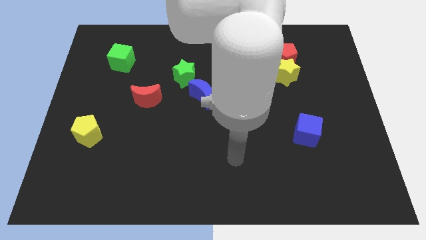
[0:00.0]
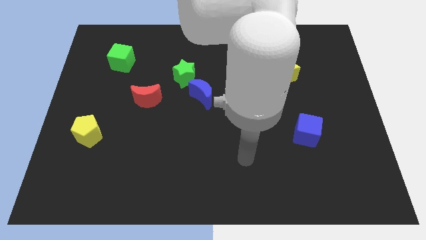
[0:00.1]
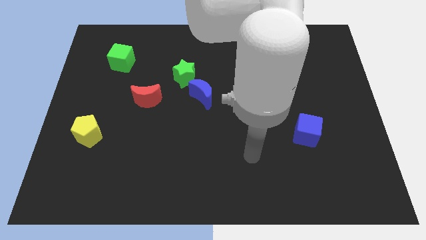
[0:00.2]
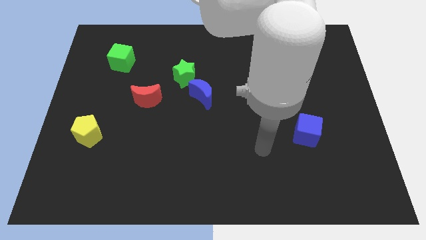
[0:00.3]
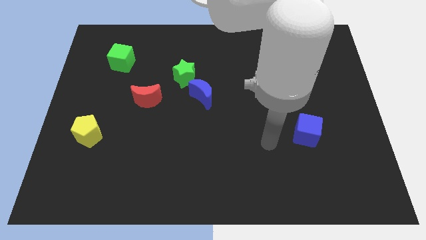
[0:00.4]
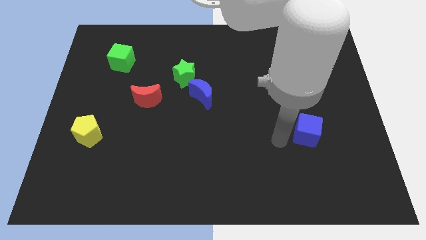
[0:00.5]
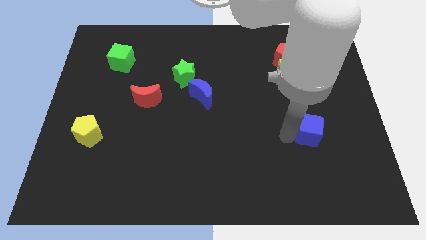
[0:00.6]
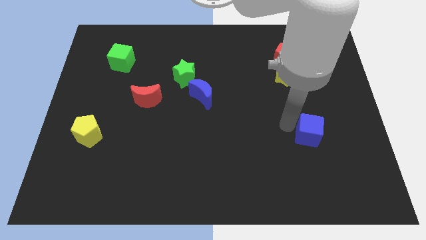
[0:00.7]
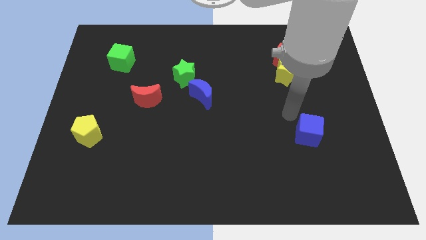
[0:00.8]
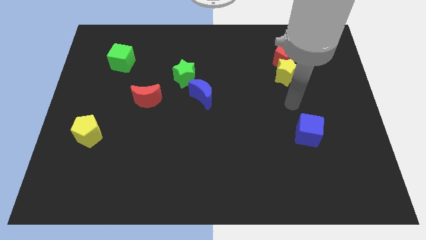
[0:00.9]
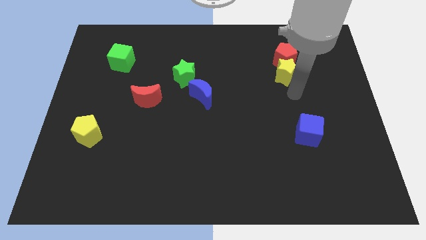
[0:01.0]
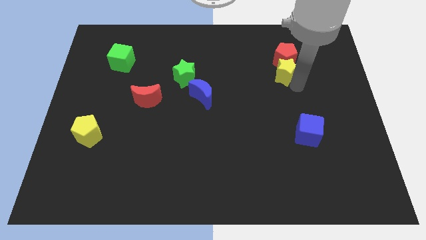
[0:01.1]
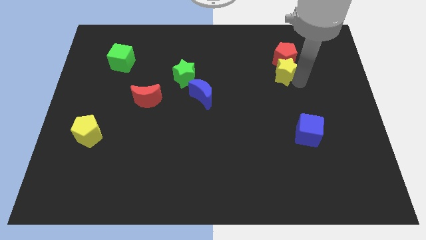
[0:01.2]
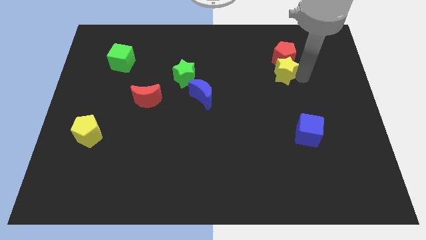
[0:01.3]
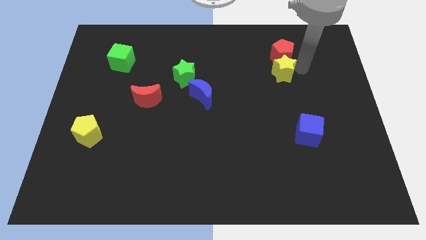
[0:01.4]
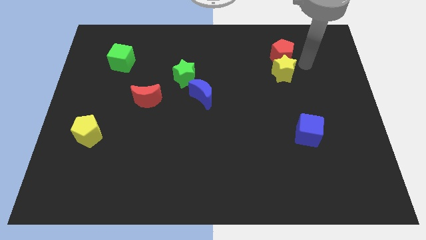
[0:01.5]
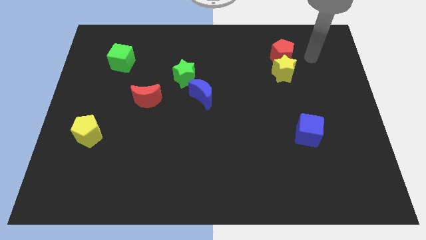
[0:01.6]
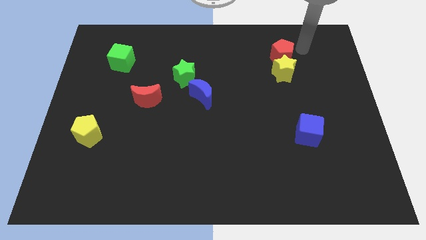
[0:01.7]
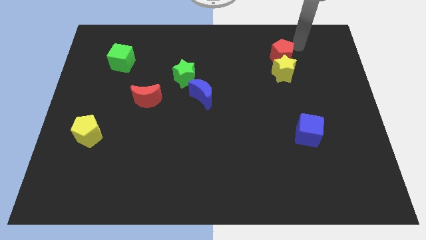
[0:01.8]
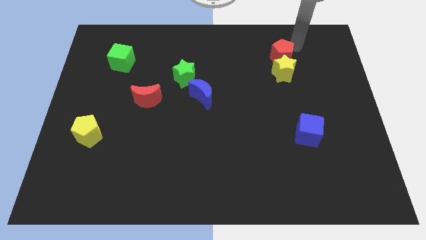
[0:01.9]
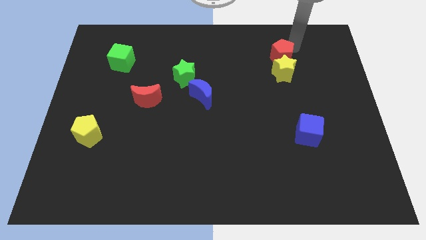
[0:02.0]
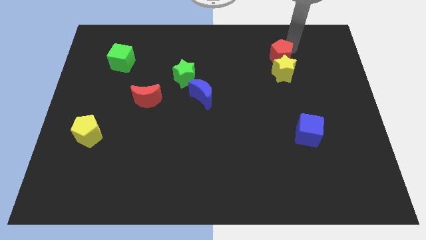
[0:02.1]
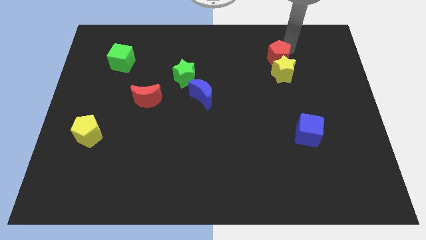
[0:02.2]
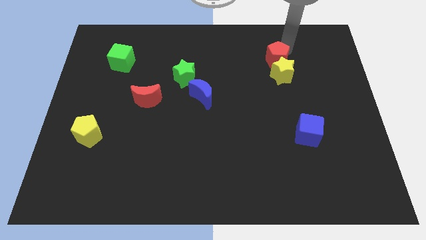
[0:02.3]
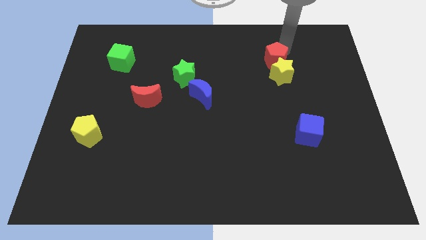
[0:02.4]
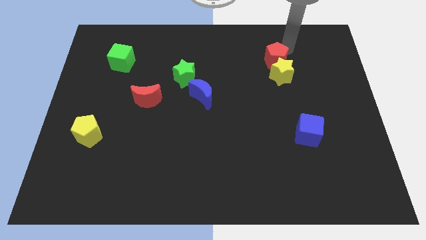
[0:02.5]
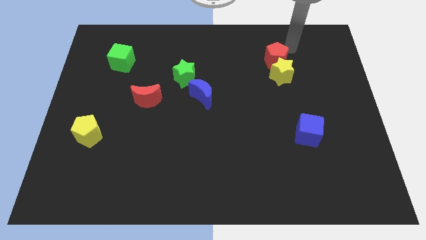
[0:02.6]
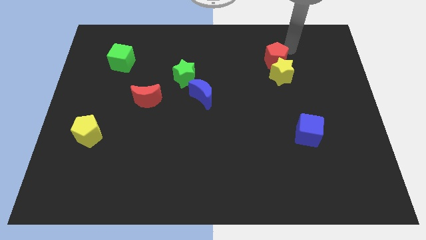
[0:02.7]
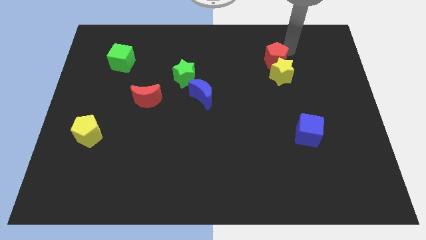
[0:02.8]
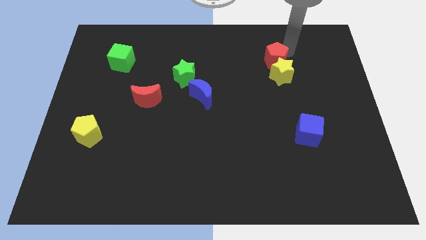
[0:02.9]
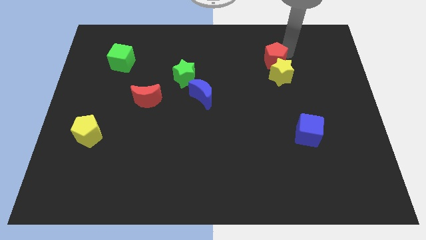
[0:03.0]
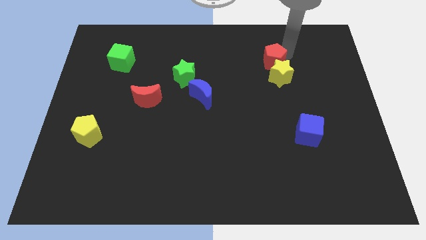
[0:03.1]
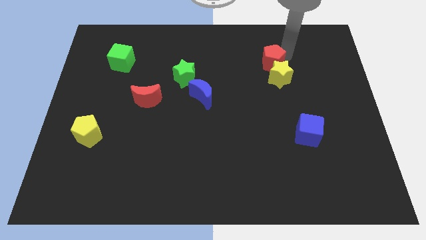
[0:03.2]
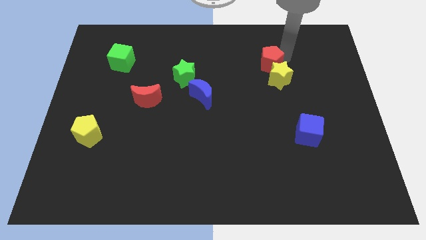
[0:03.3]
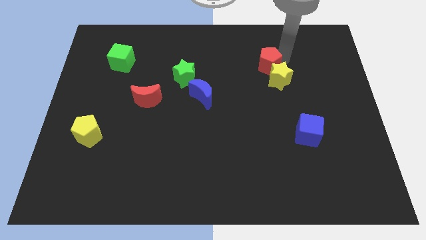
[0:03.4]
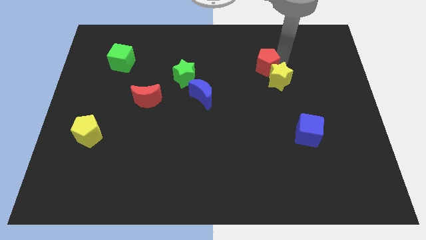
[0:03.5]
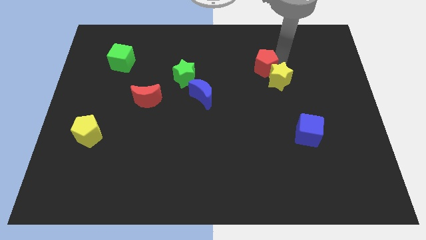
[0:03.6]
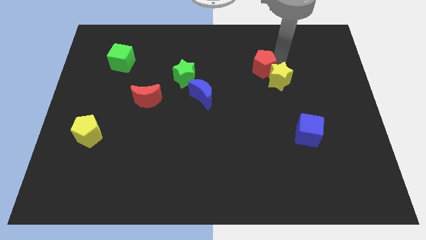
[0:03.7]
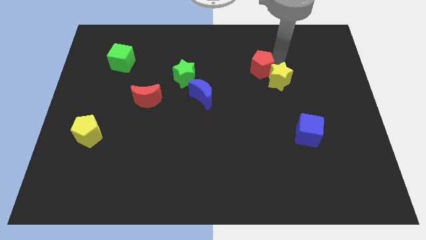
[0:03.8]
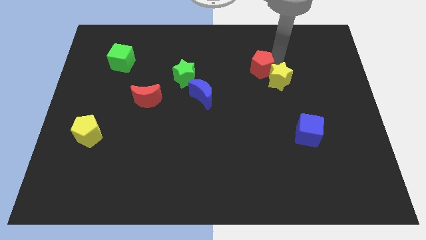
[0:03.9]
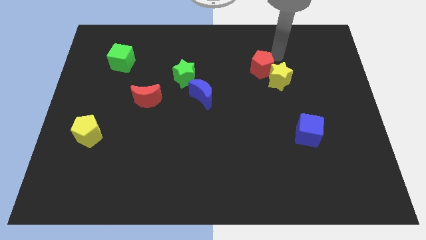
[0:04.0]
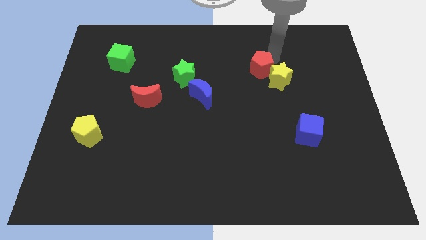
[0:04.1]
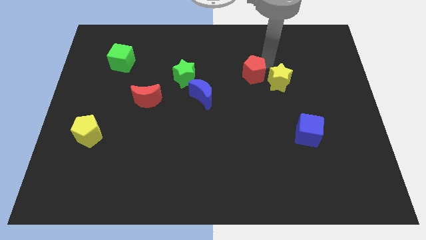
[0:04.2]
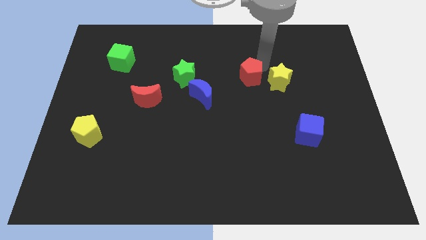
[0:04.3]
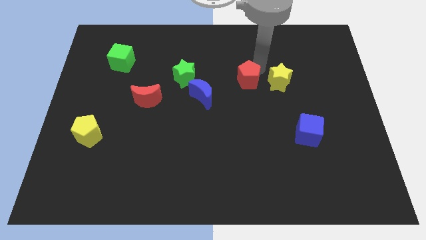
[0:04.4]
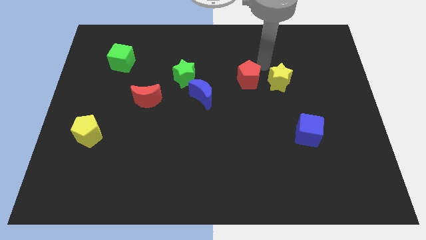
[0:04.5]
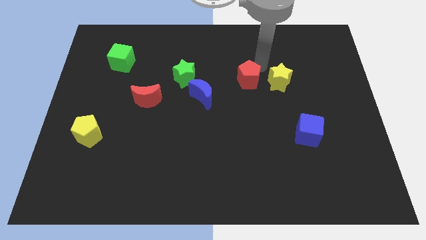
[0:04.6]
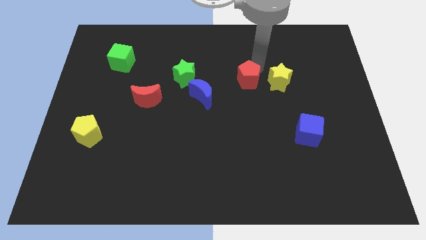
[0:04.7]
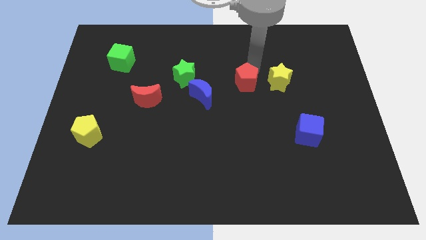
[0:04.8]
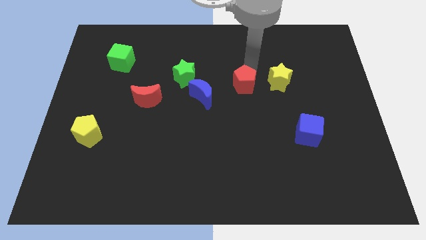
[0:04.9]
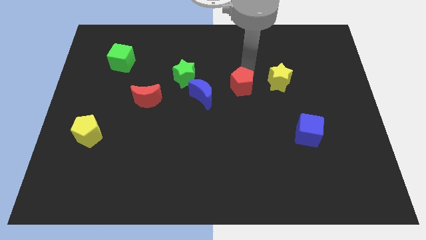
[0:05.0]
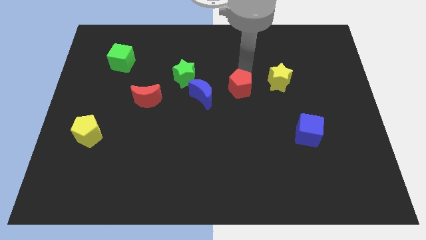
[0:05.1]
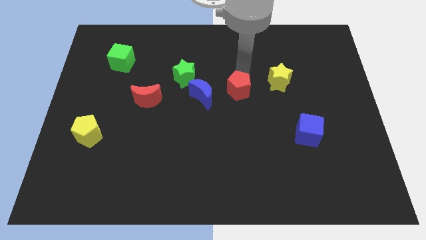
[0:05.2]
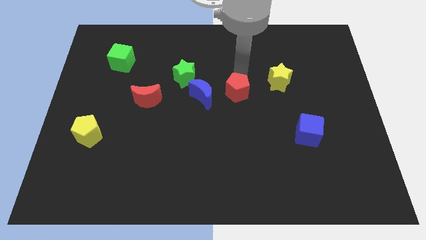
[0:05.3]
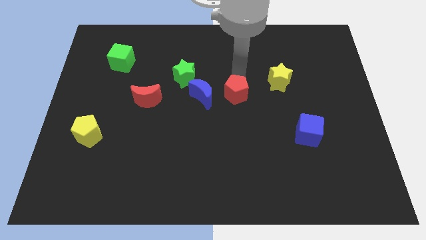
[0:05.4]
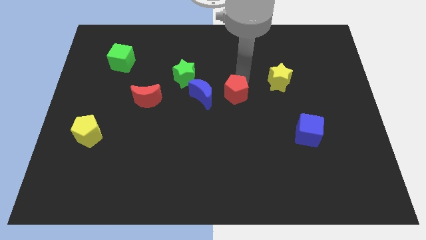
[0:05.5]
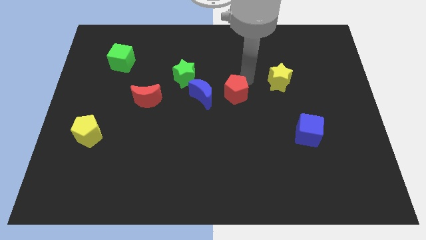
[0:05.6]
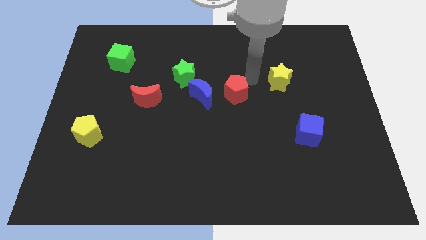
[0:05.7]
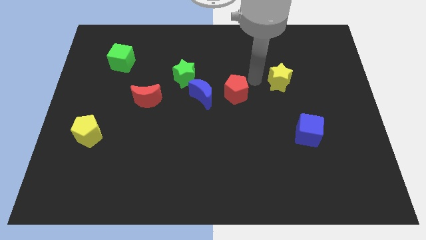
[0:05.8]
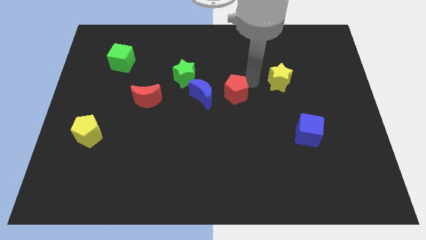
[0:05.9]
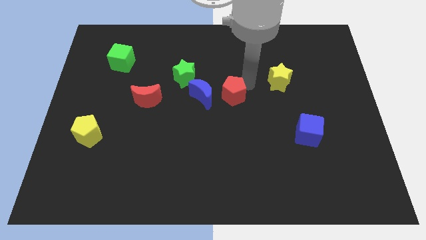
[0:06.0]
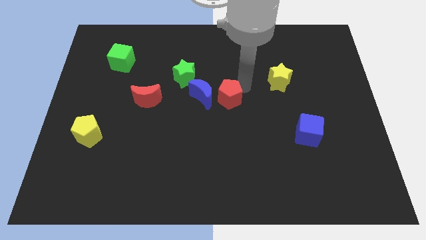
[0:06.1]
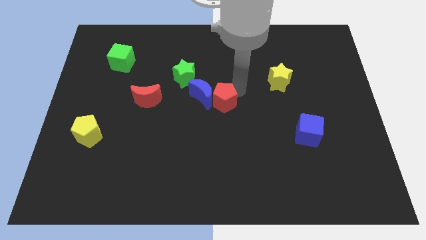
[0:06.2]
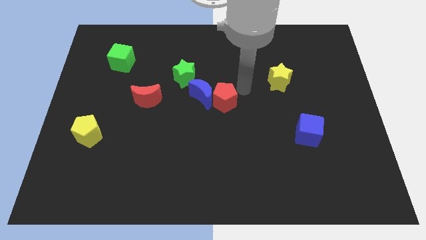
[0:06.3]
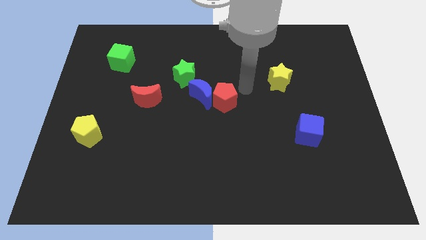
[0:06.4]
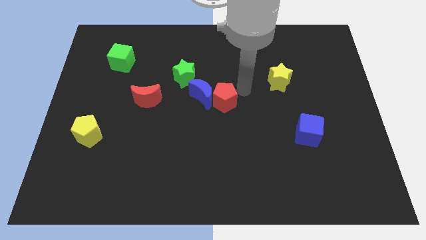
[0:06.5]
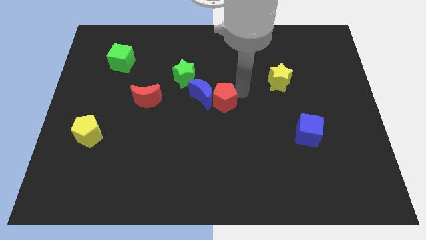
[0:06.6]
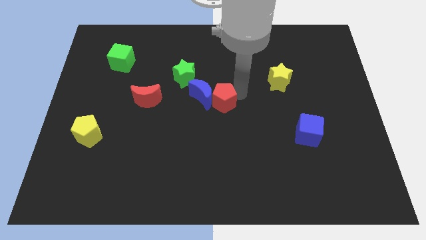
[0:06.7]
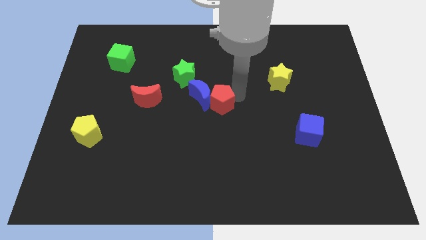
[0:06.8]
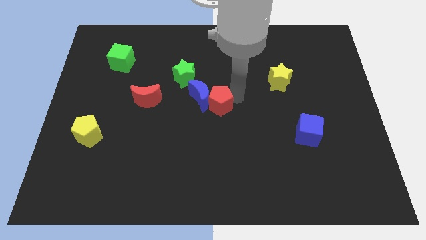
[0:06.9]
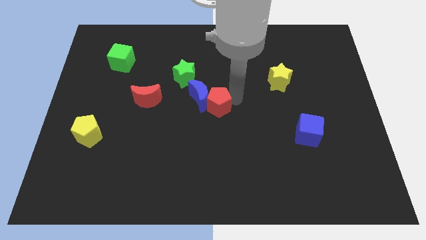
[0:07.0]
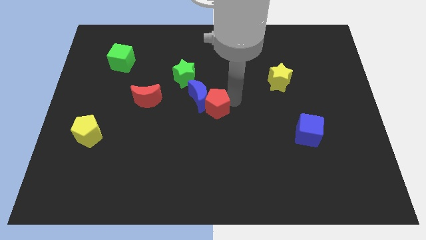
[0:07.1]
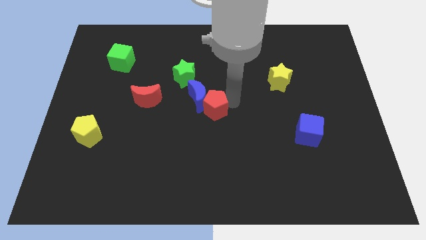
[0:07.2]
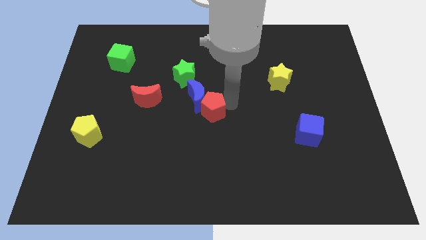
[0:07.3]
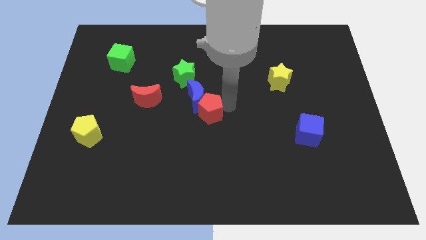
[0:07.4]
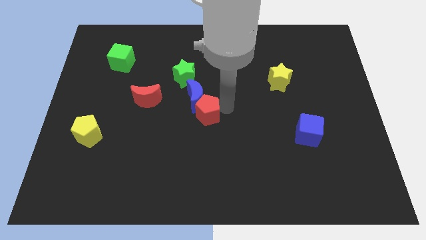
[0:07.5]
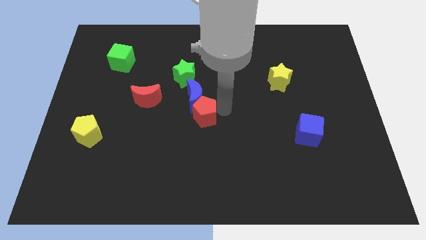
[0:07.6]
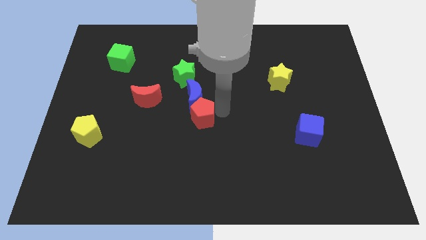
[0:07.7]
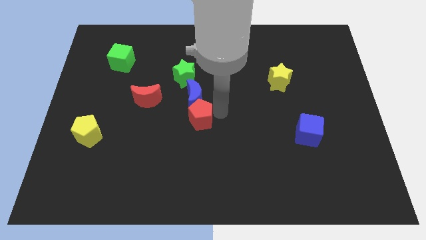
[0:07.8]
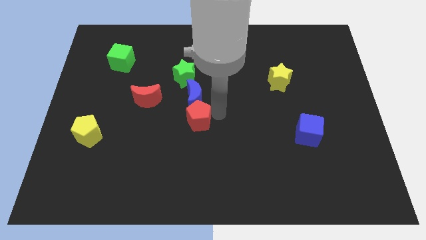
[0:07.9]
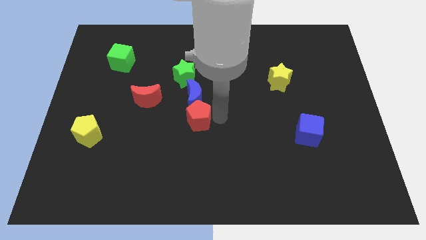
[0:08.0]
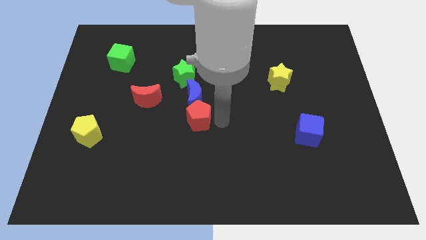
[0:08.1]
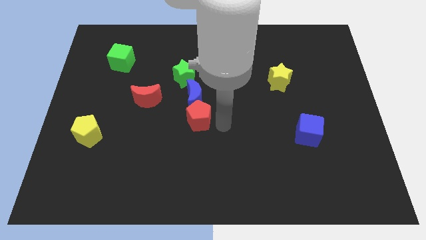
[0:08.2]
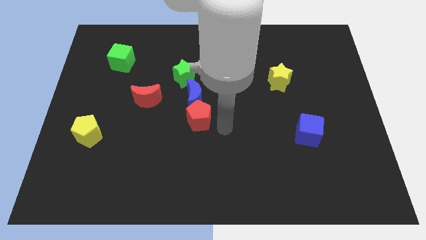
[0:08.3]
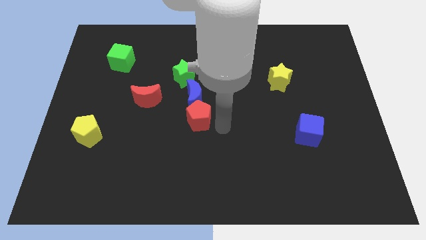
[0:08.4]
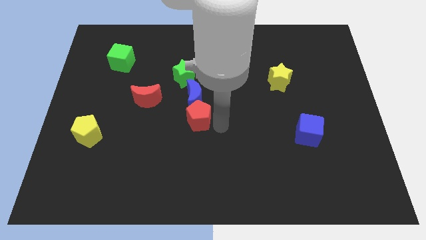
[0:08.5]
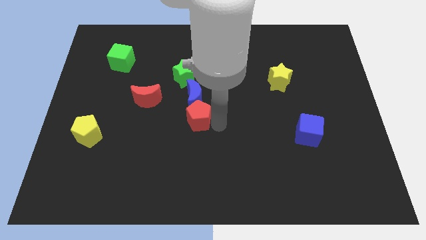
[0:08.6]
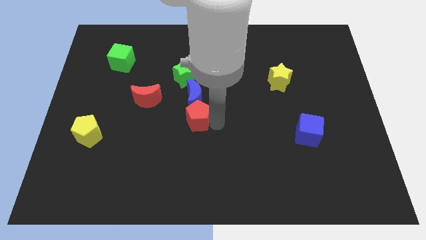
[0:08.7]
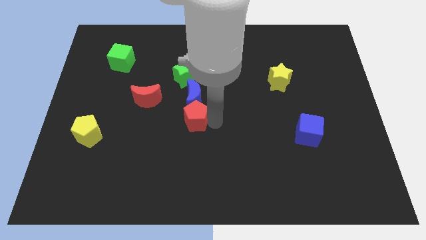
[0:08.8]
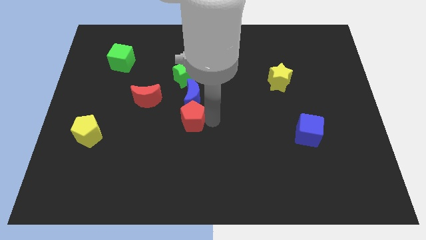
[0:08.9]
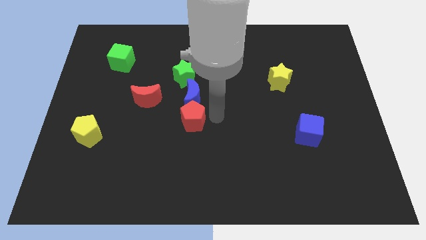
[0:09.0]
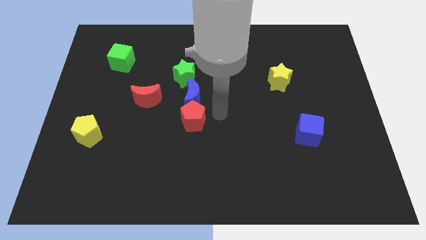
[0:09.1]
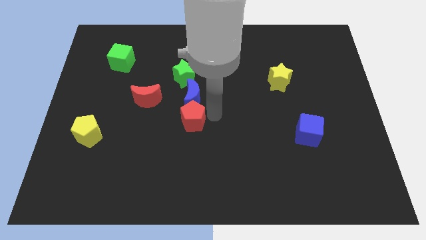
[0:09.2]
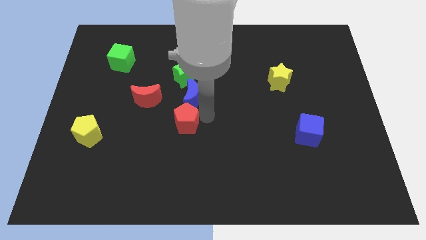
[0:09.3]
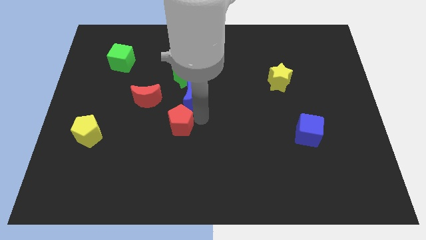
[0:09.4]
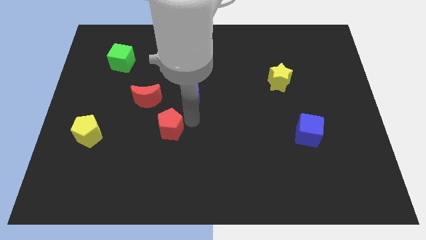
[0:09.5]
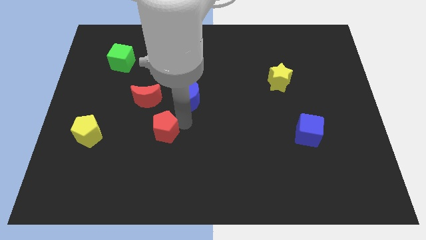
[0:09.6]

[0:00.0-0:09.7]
push the red pentagon to the bottom side of the red moon
